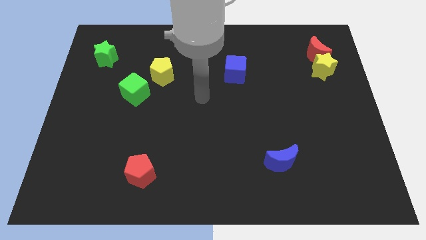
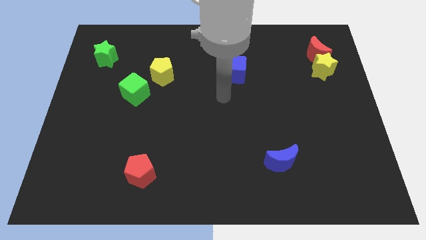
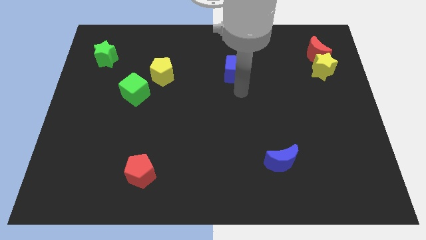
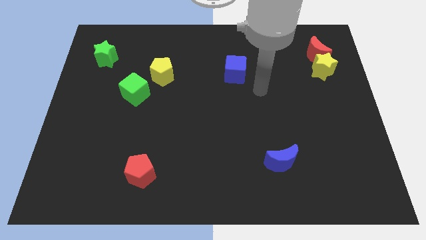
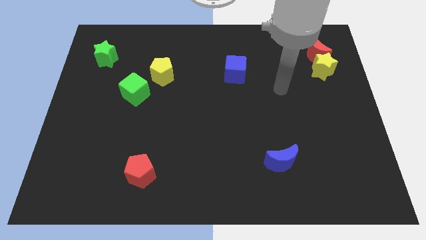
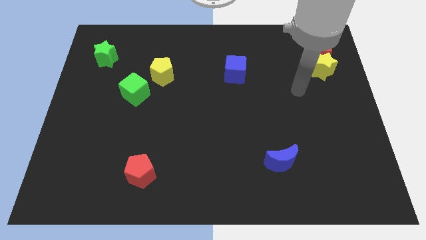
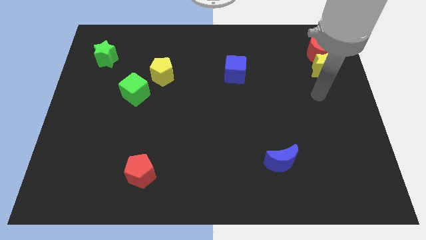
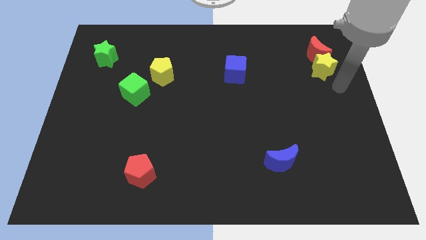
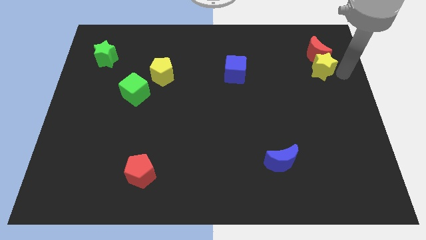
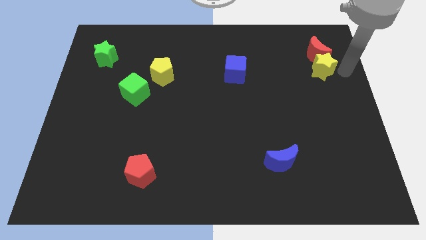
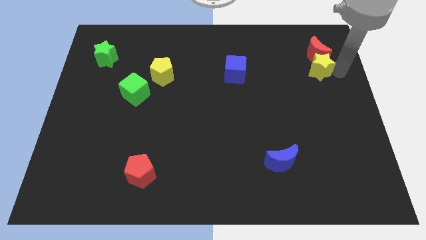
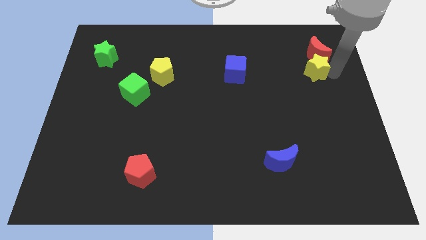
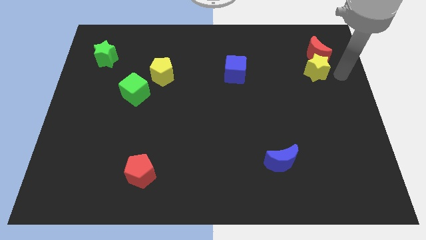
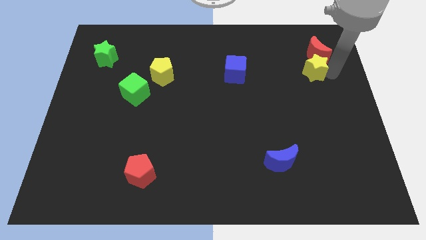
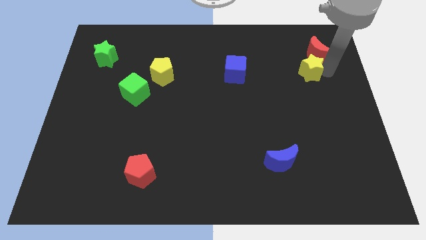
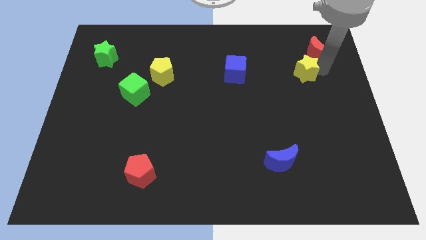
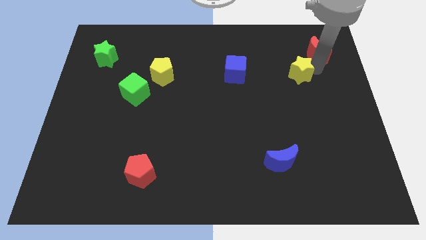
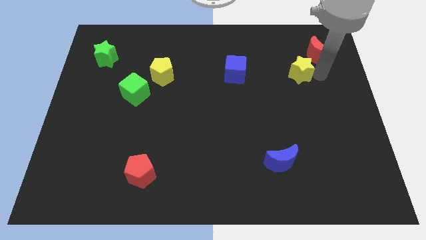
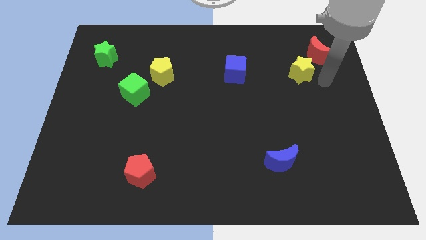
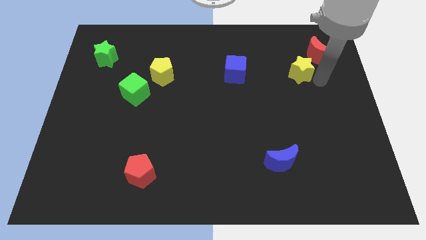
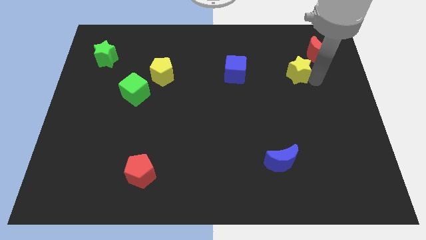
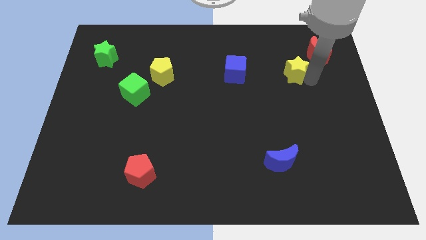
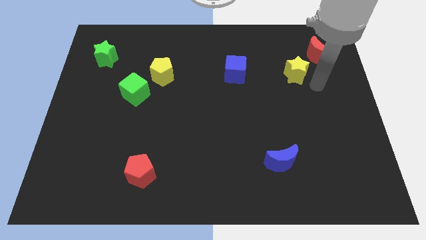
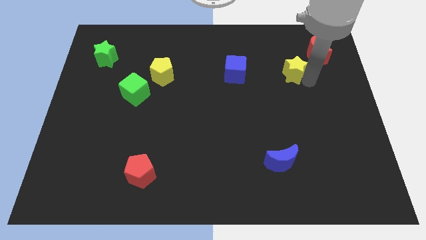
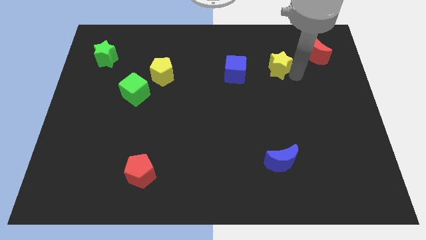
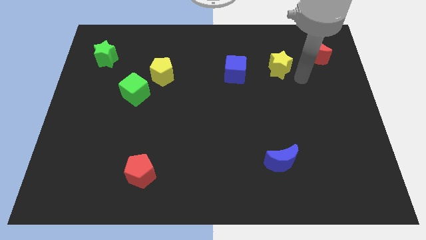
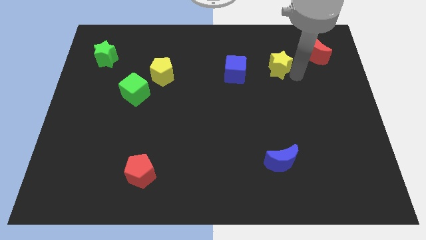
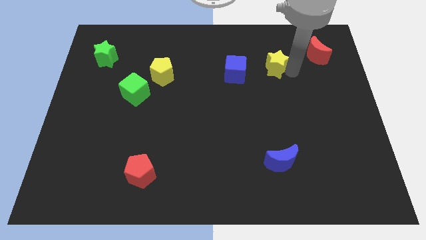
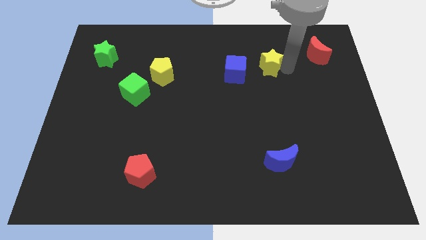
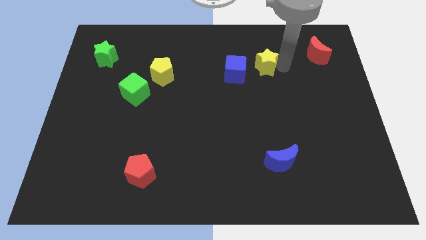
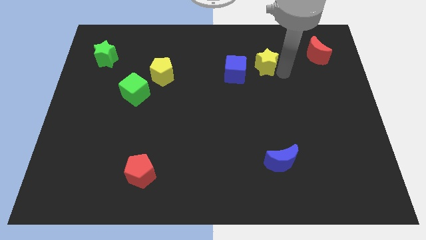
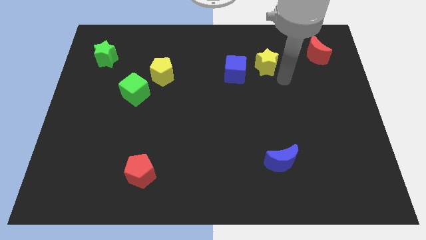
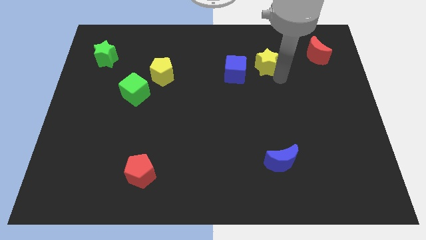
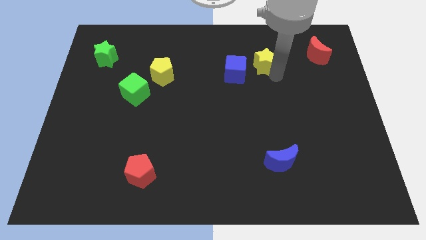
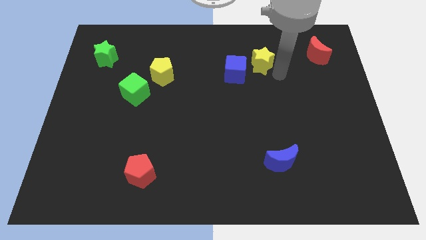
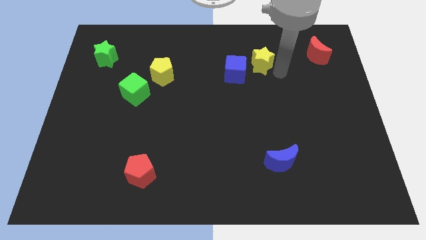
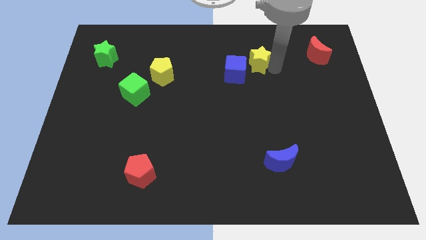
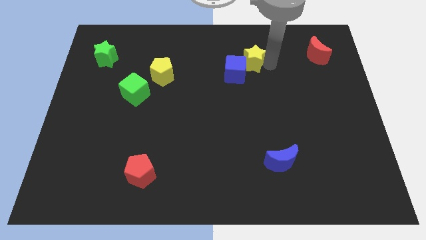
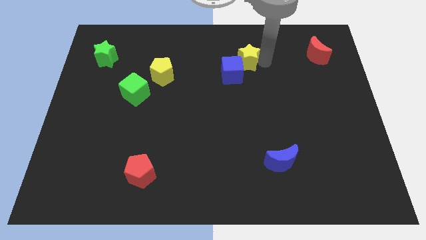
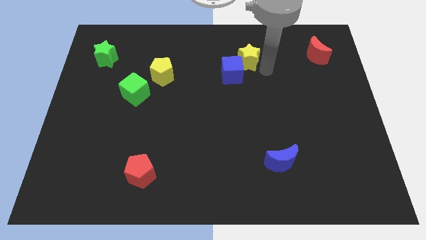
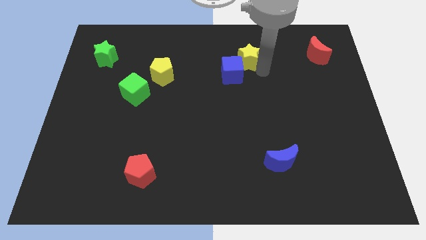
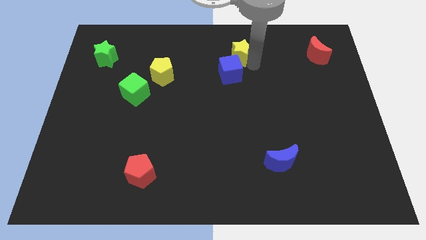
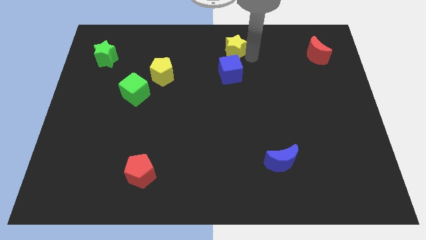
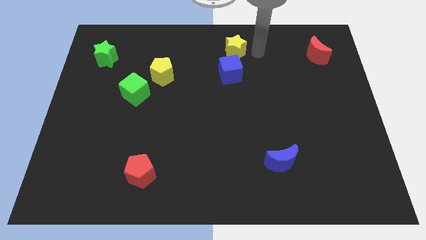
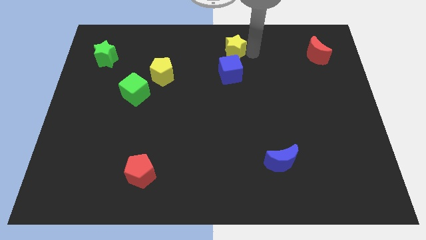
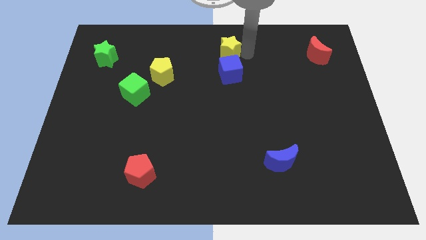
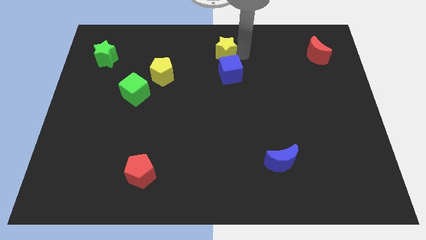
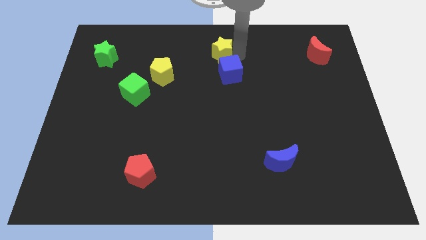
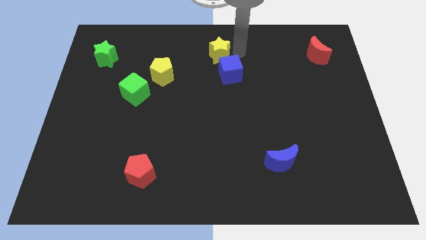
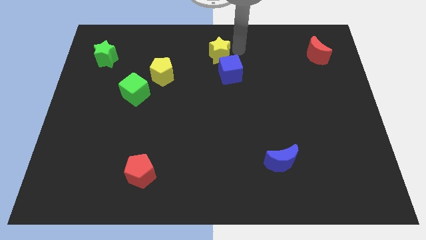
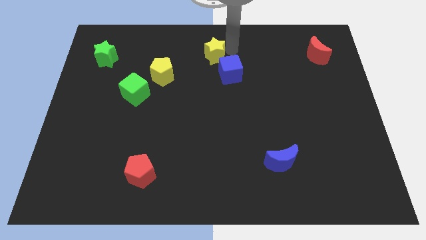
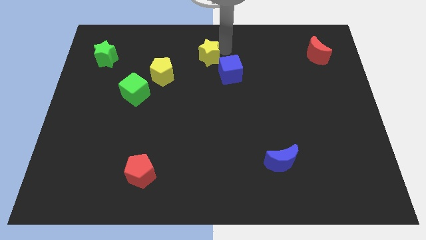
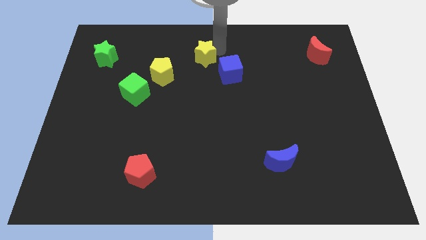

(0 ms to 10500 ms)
move the yellow star to the top right side of the yellow pentagon

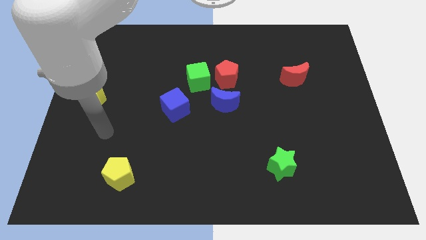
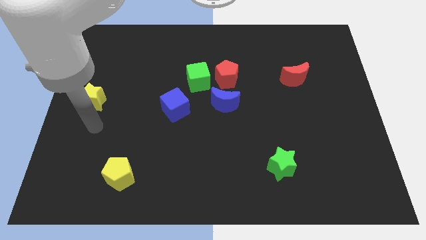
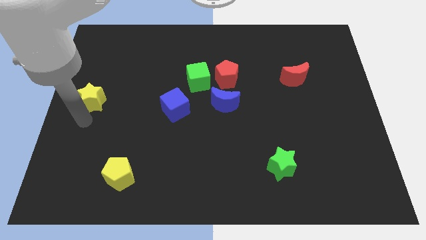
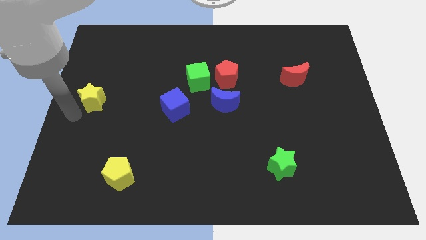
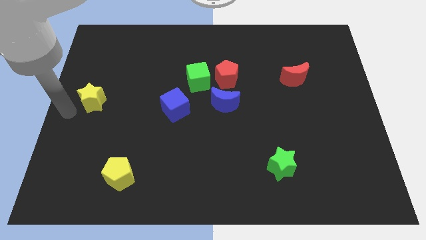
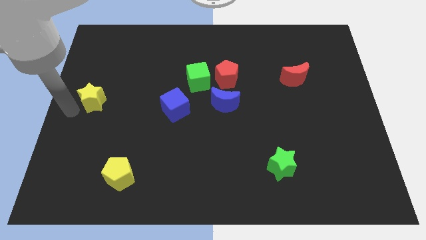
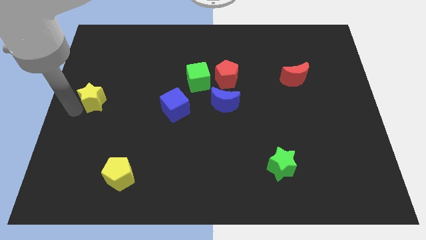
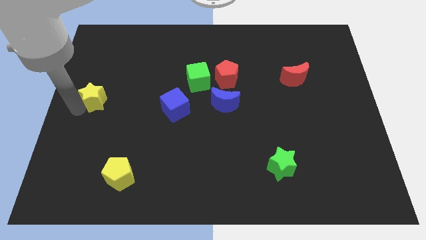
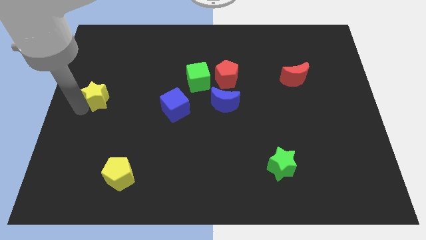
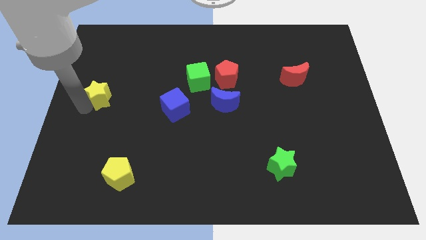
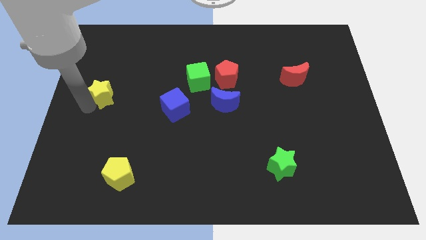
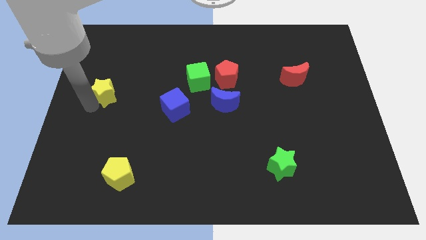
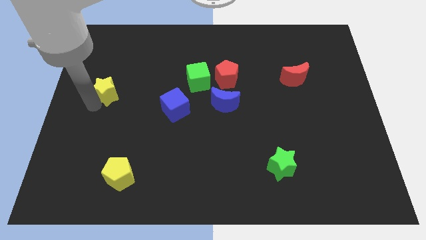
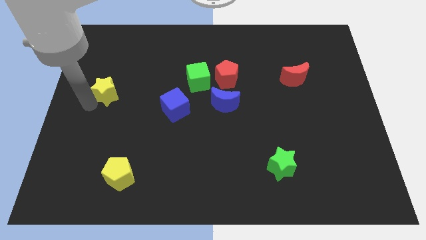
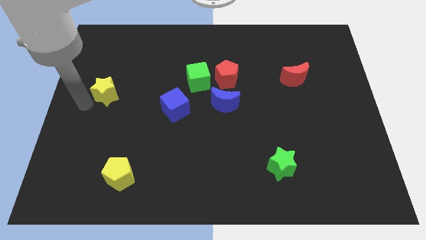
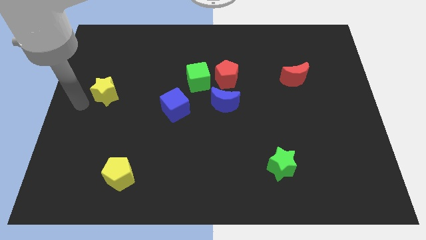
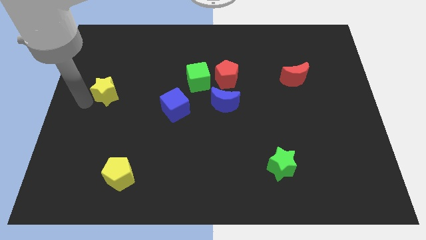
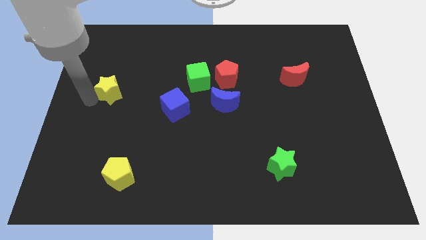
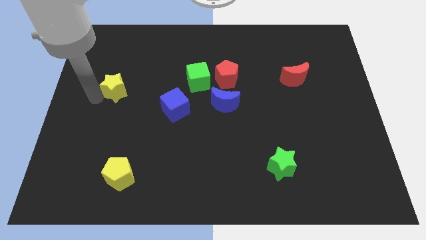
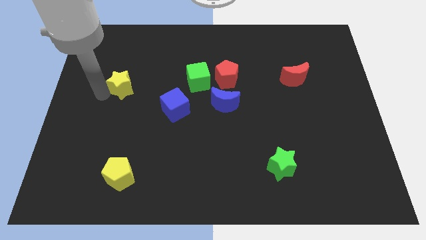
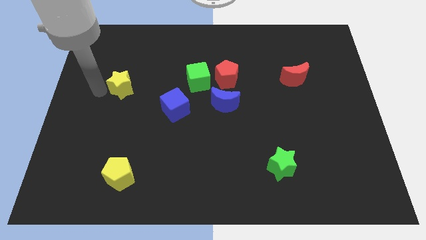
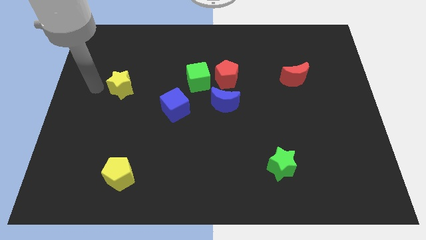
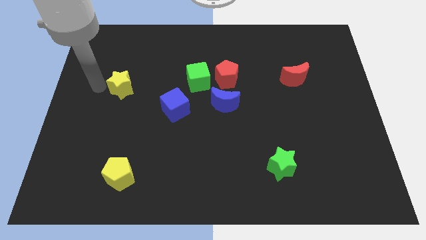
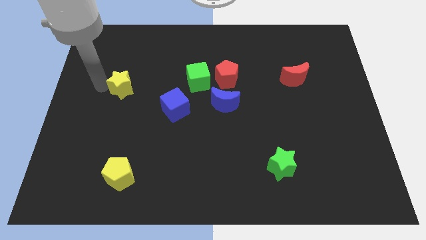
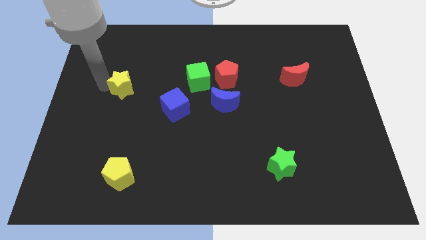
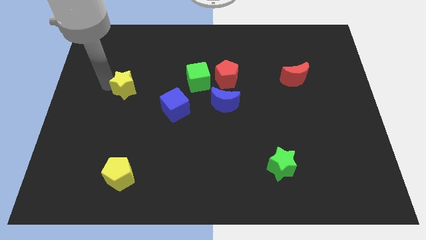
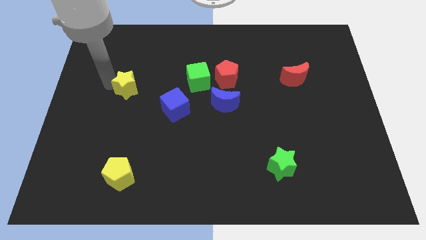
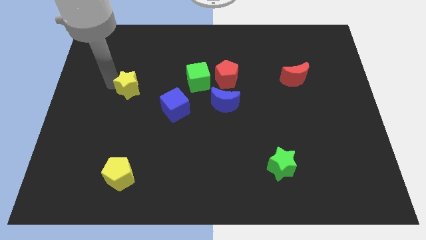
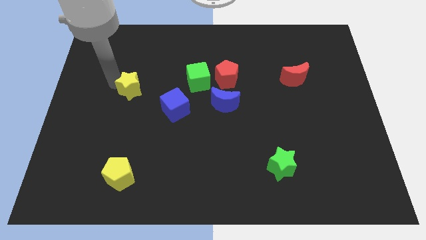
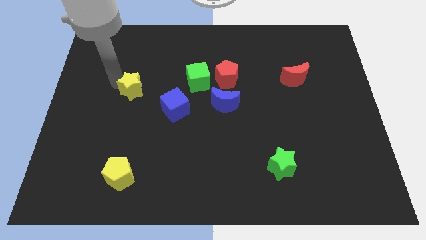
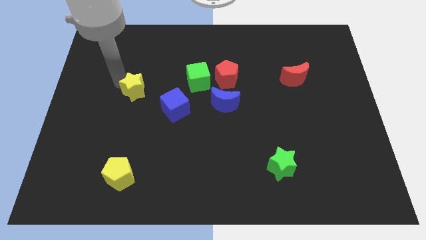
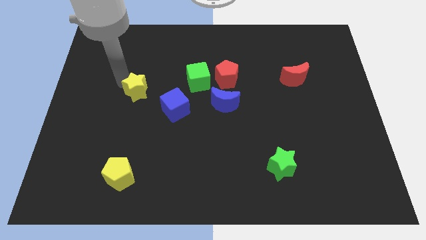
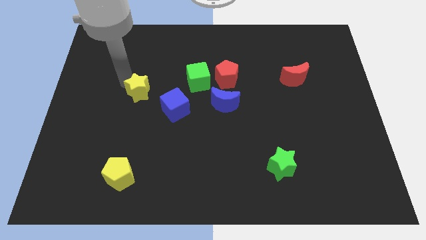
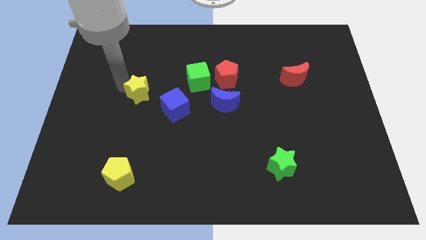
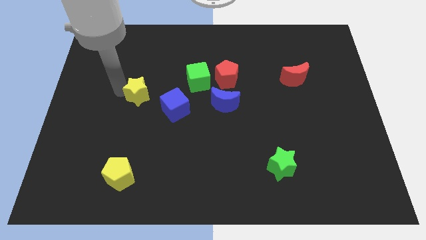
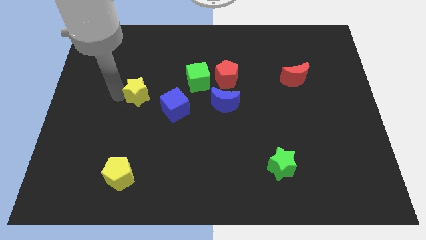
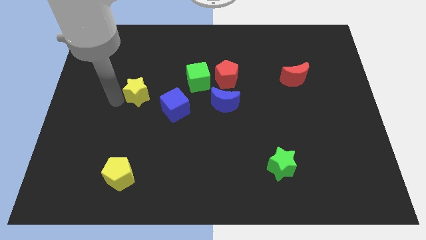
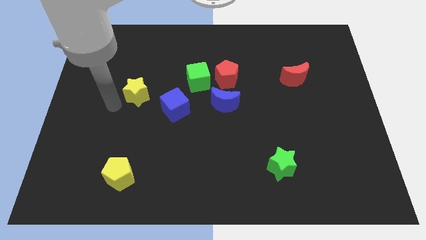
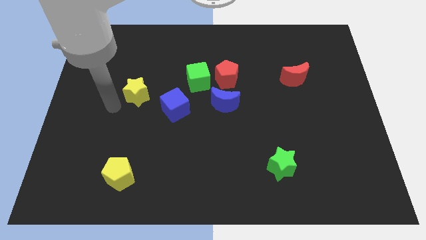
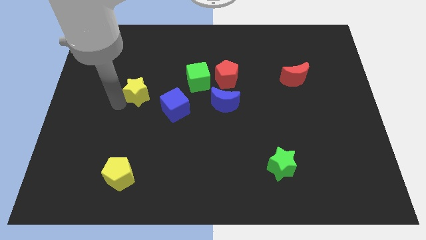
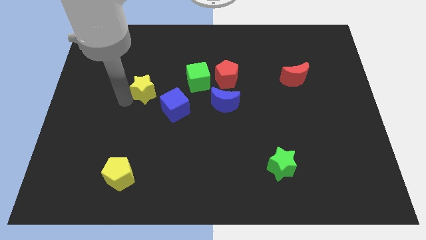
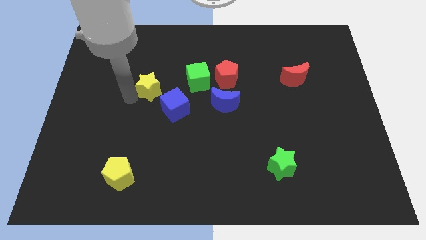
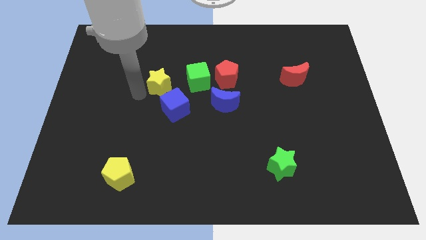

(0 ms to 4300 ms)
move the yellow star above the blue cube
